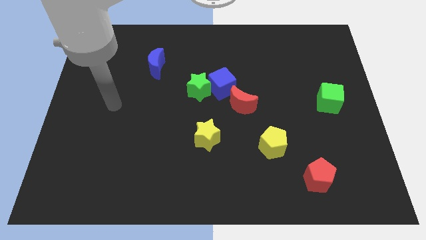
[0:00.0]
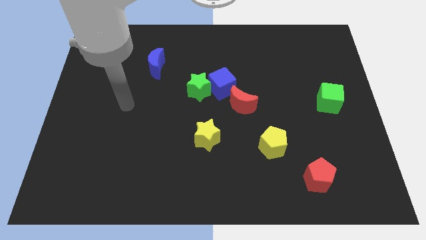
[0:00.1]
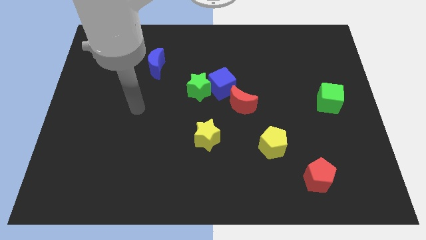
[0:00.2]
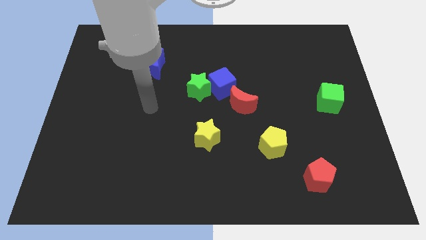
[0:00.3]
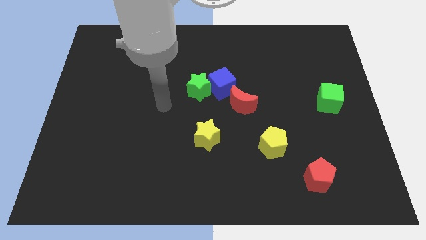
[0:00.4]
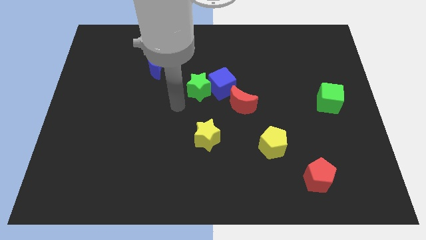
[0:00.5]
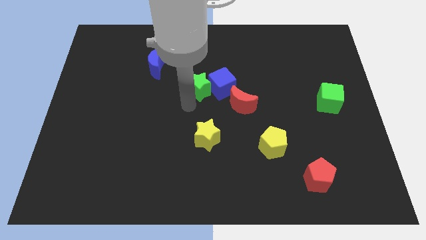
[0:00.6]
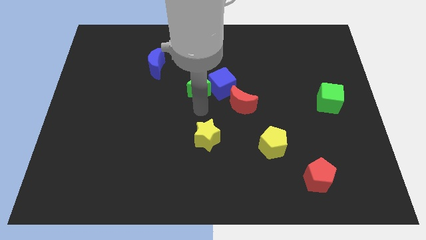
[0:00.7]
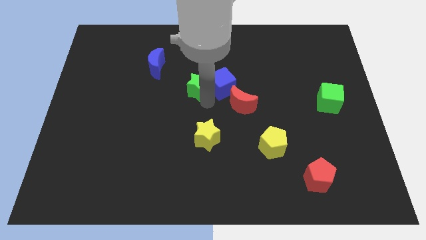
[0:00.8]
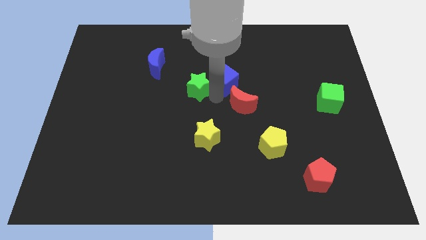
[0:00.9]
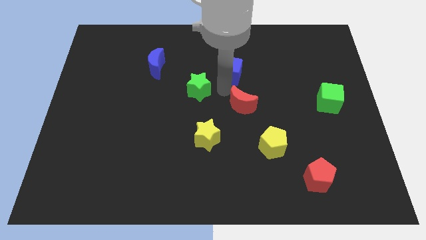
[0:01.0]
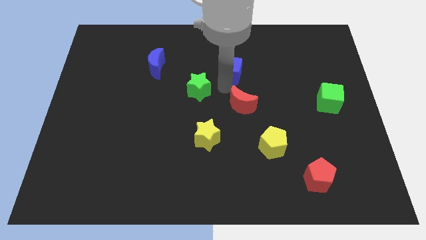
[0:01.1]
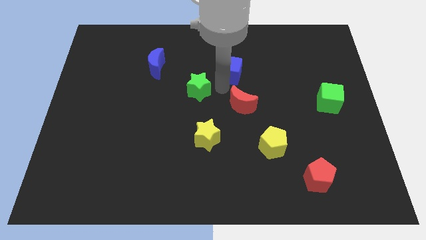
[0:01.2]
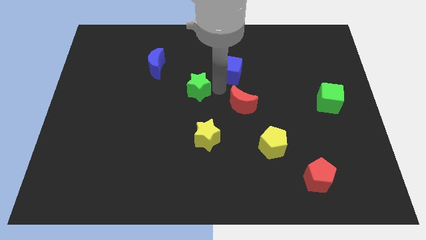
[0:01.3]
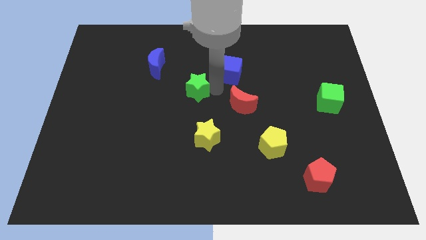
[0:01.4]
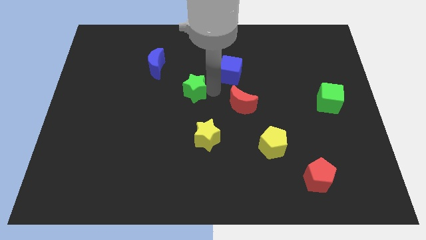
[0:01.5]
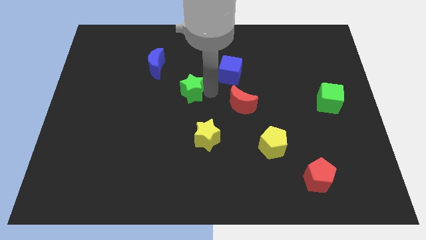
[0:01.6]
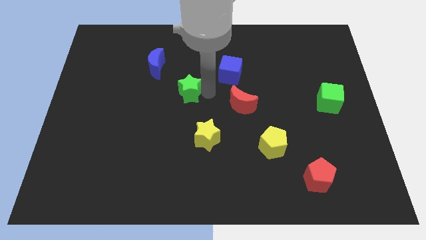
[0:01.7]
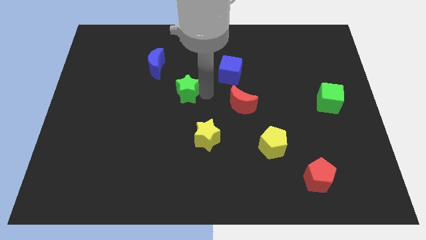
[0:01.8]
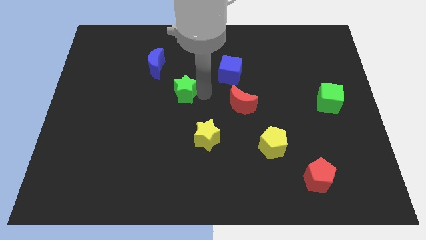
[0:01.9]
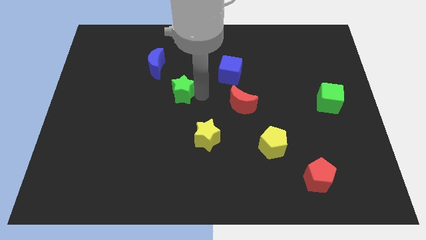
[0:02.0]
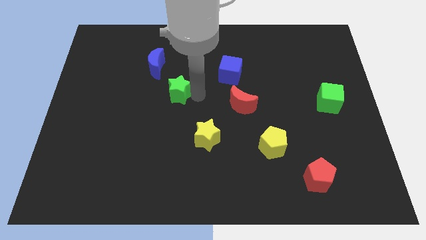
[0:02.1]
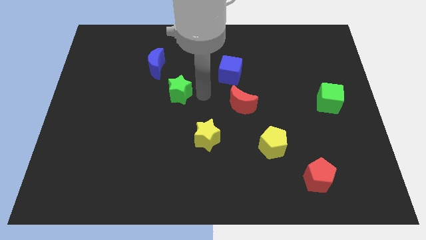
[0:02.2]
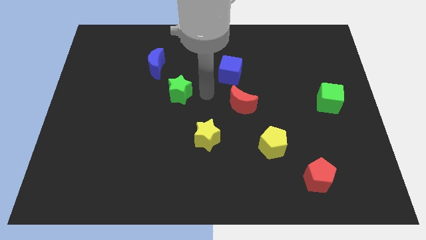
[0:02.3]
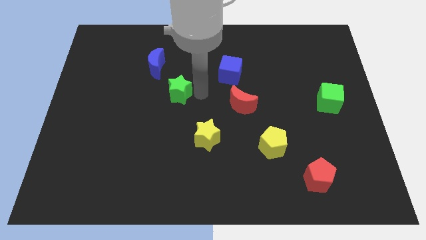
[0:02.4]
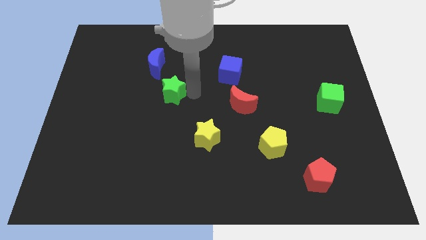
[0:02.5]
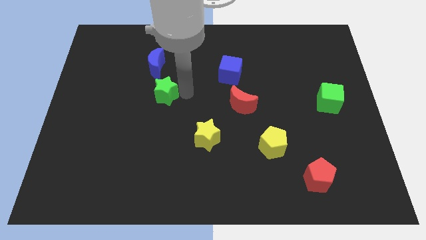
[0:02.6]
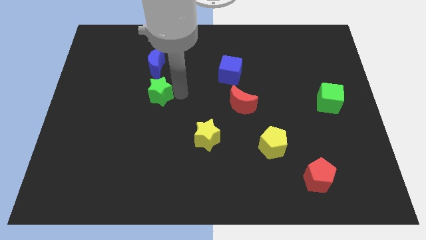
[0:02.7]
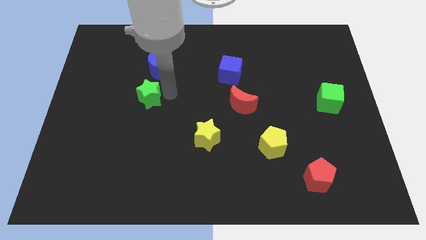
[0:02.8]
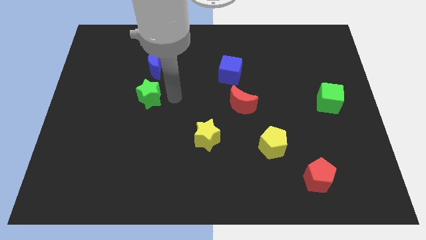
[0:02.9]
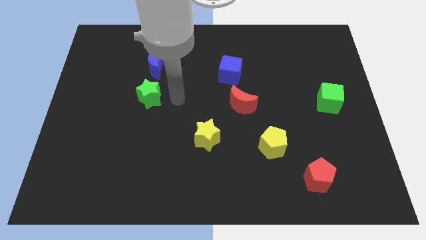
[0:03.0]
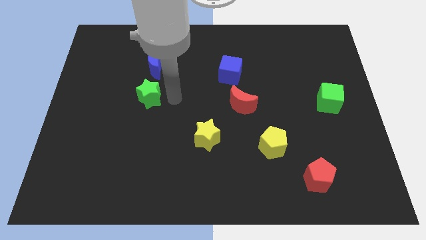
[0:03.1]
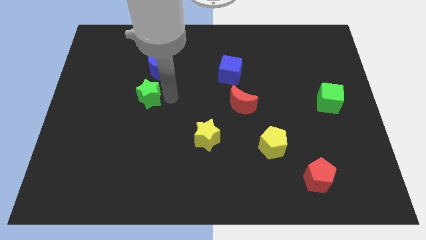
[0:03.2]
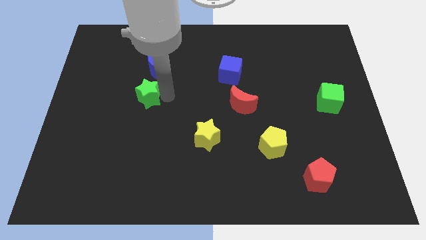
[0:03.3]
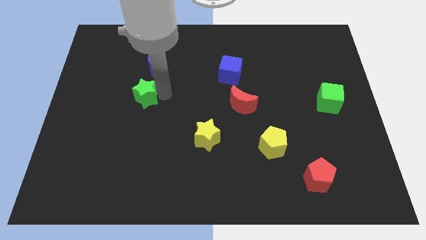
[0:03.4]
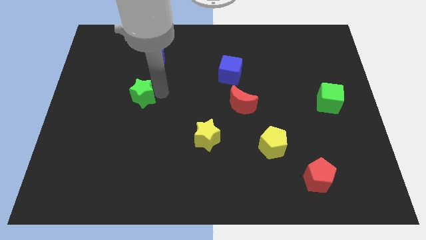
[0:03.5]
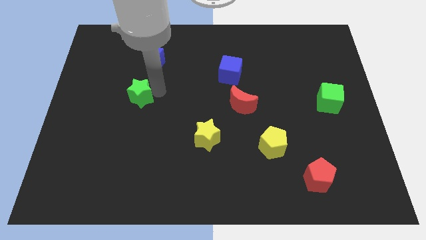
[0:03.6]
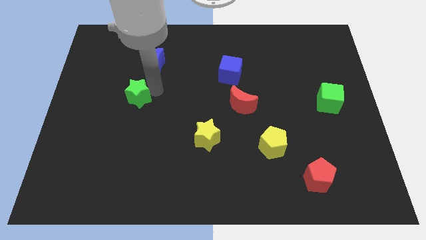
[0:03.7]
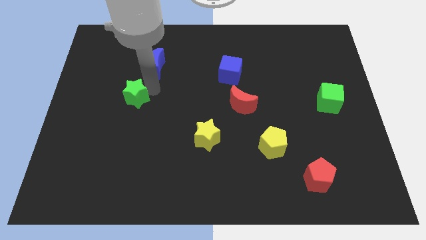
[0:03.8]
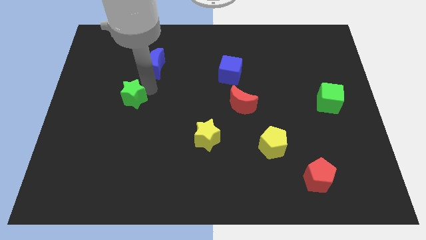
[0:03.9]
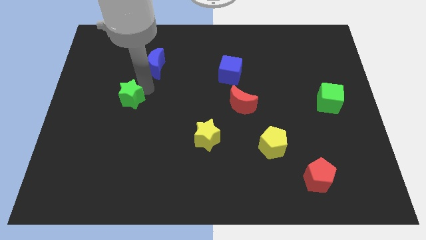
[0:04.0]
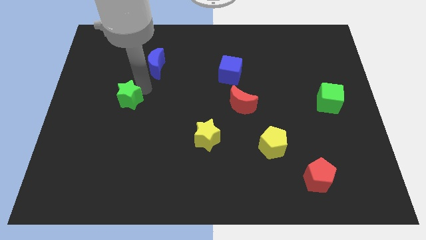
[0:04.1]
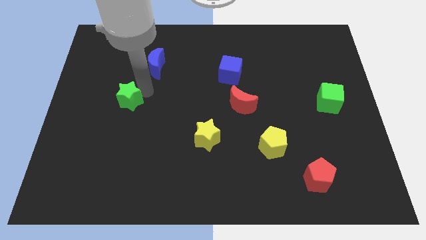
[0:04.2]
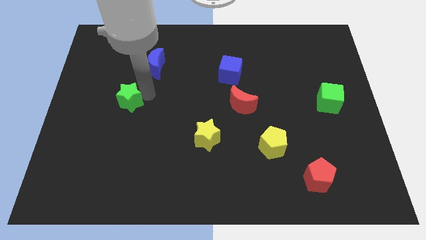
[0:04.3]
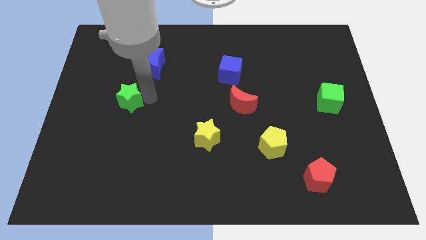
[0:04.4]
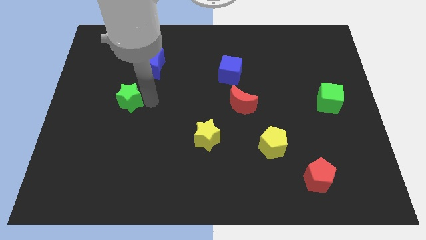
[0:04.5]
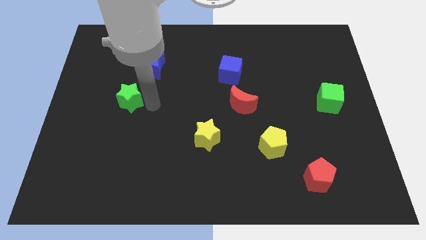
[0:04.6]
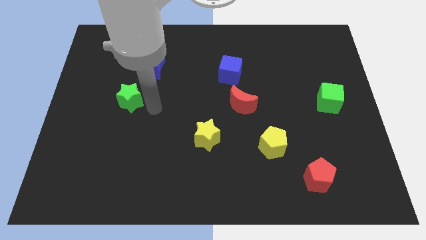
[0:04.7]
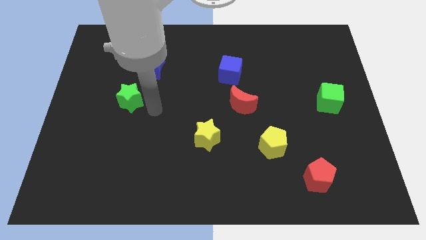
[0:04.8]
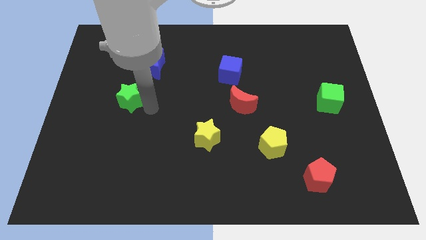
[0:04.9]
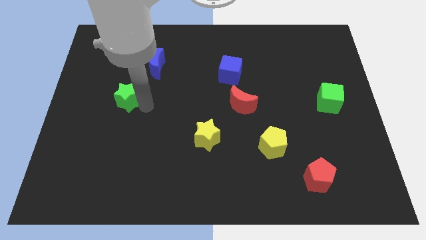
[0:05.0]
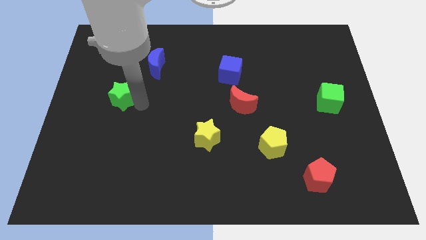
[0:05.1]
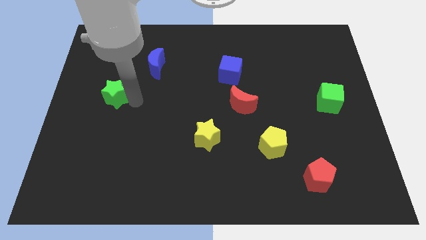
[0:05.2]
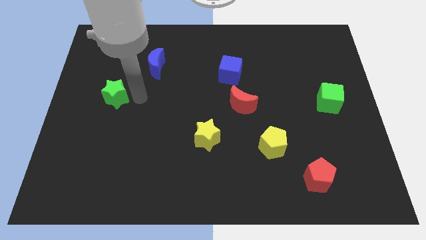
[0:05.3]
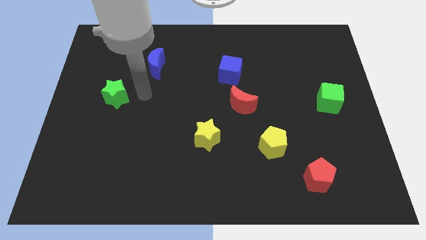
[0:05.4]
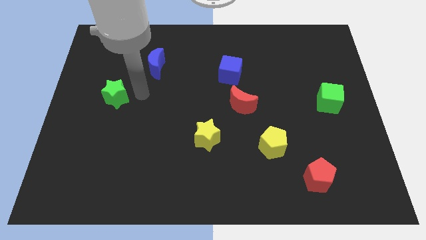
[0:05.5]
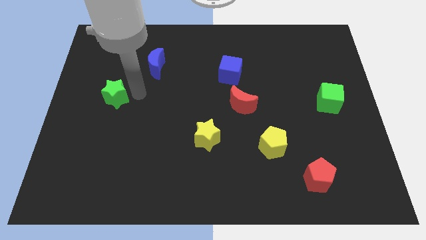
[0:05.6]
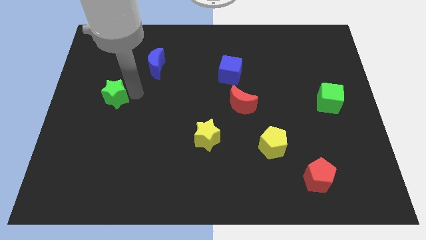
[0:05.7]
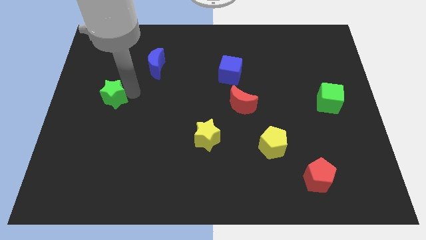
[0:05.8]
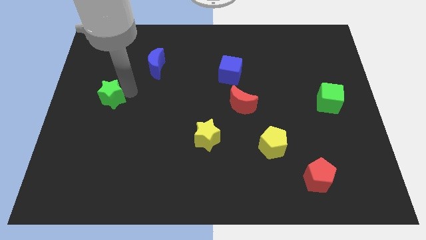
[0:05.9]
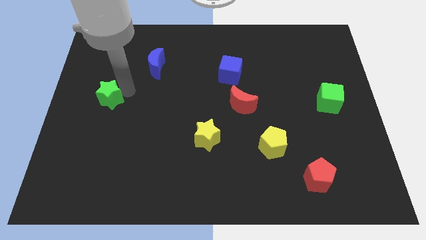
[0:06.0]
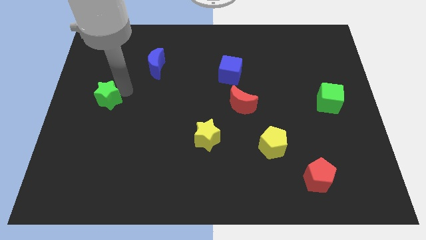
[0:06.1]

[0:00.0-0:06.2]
push the green star to the left side of the board
